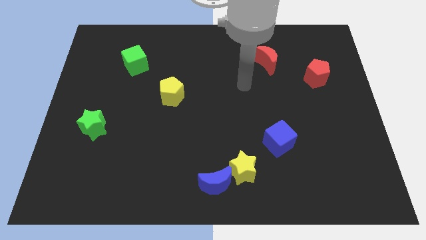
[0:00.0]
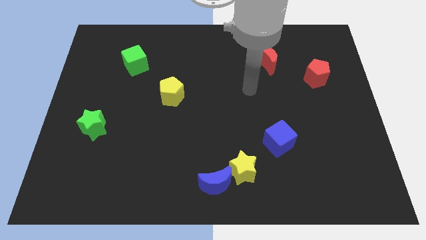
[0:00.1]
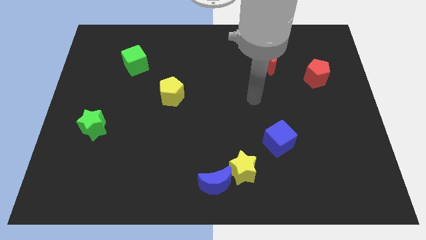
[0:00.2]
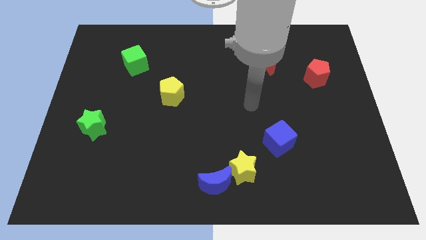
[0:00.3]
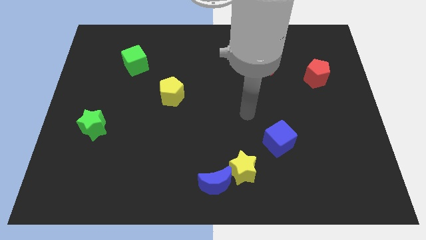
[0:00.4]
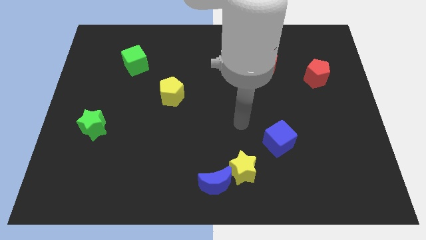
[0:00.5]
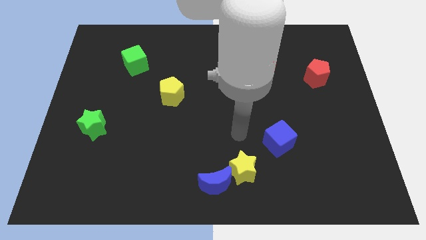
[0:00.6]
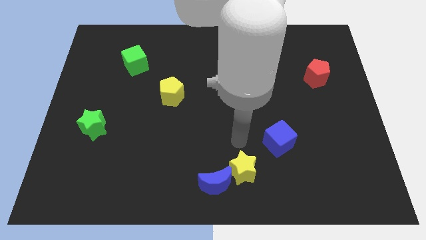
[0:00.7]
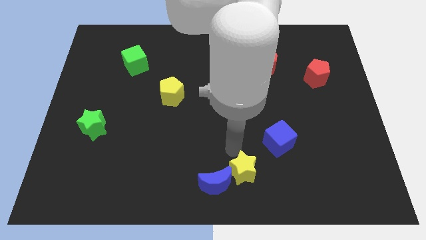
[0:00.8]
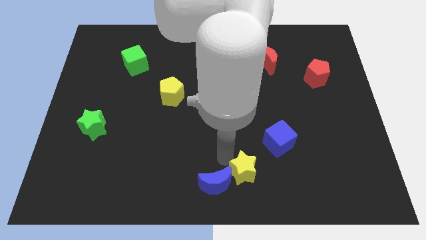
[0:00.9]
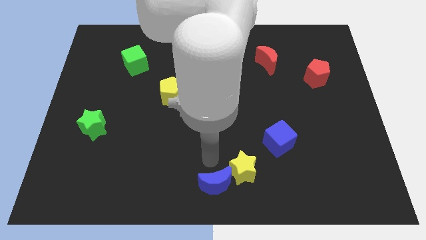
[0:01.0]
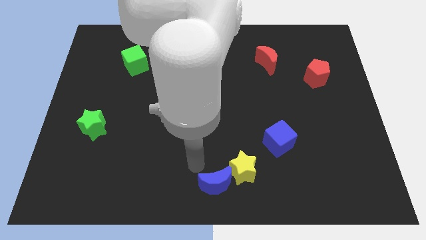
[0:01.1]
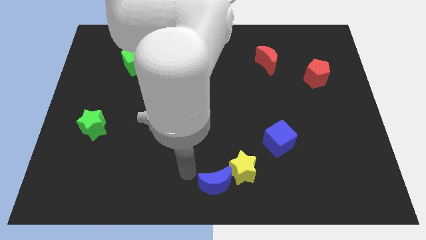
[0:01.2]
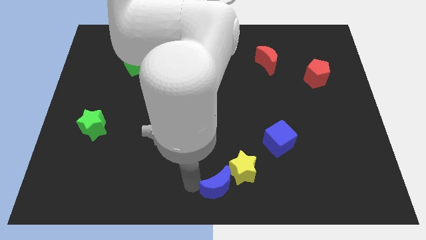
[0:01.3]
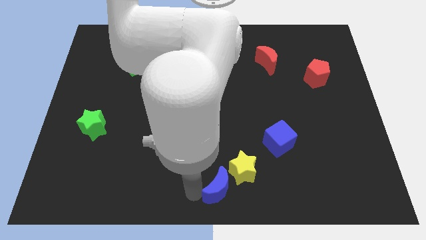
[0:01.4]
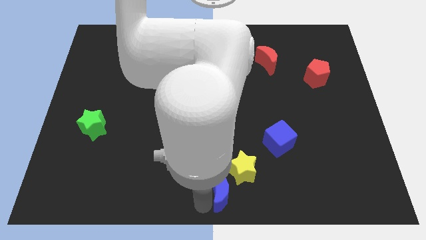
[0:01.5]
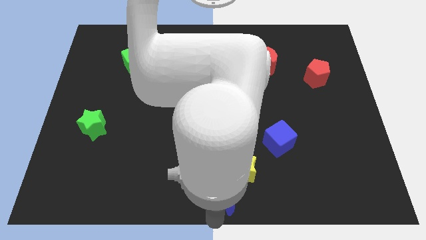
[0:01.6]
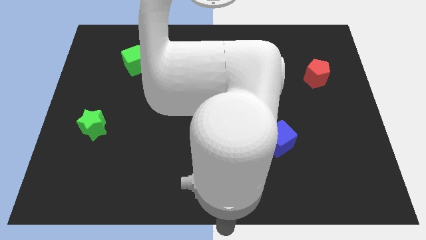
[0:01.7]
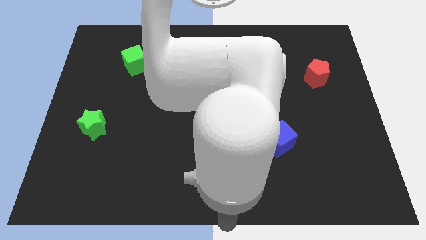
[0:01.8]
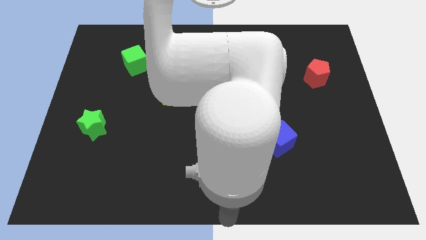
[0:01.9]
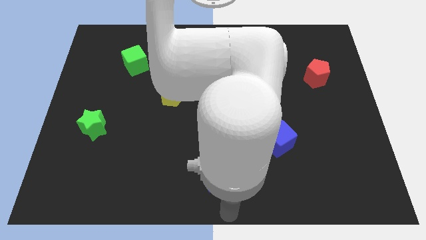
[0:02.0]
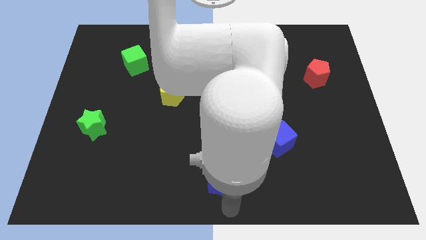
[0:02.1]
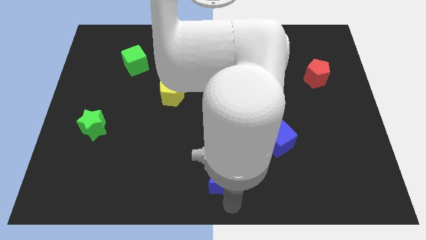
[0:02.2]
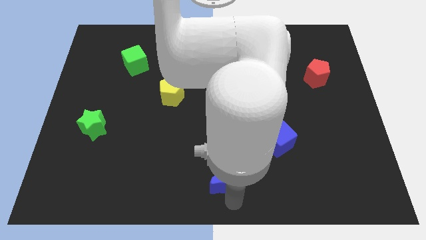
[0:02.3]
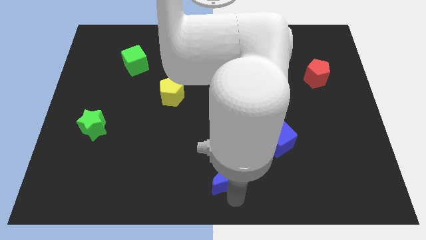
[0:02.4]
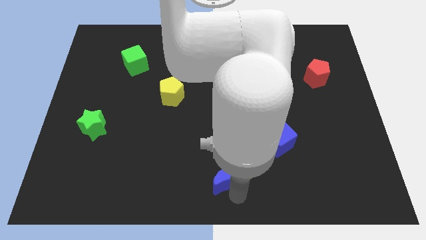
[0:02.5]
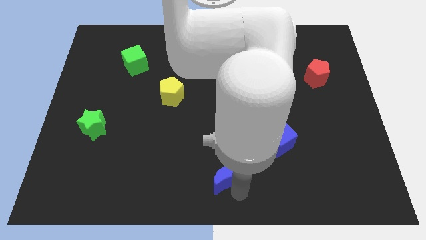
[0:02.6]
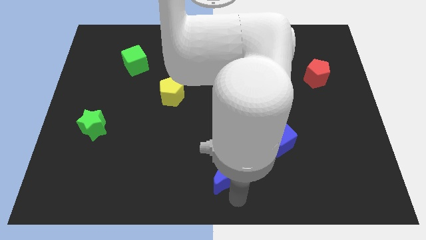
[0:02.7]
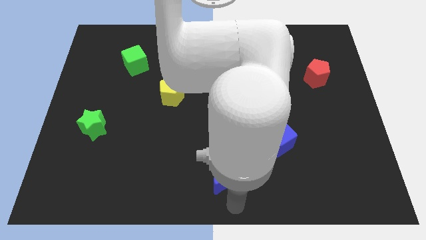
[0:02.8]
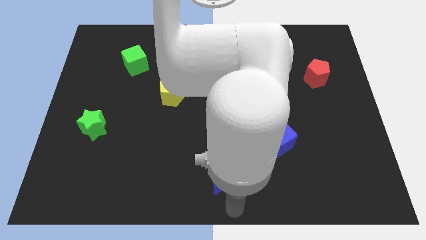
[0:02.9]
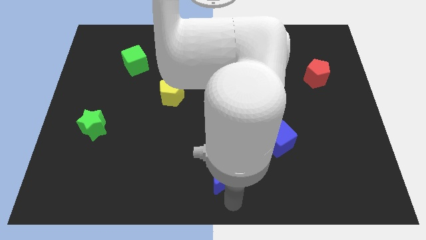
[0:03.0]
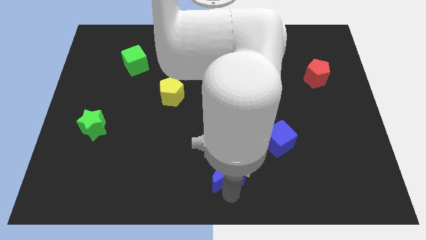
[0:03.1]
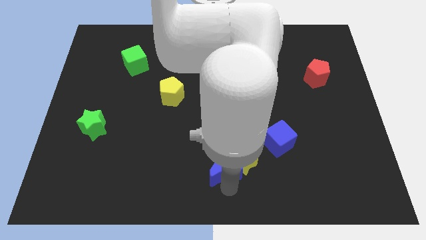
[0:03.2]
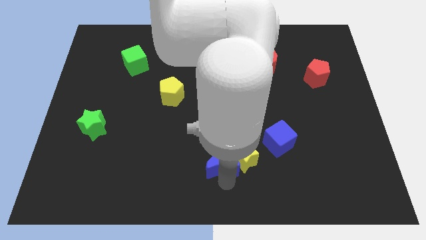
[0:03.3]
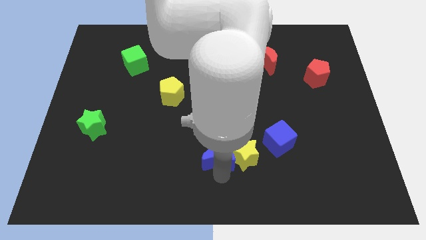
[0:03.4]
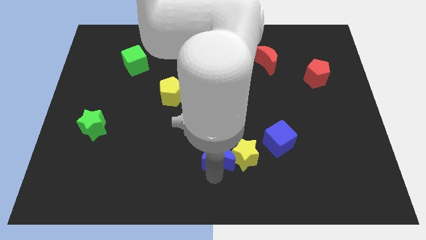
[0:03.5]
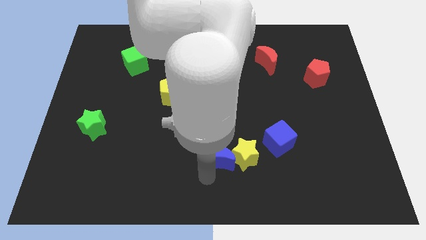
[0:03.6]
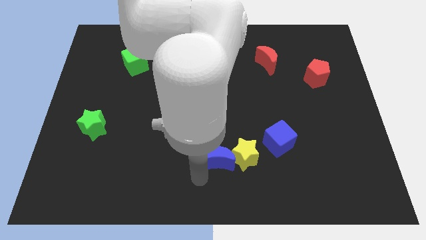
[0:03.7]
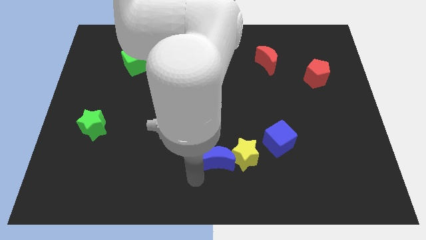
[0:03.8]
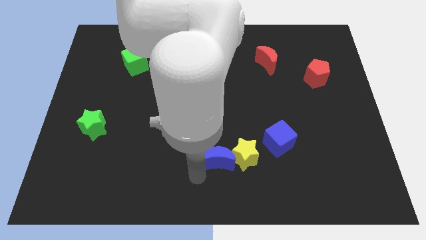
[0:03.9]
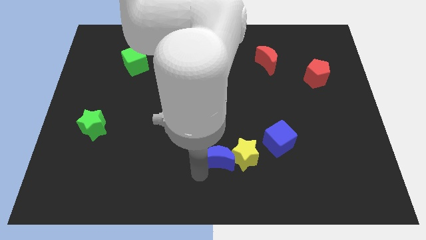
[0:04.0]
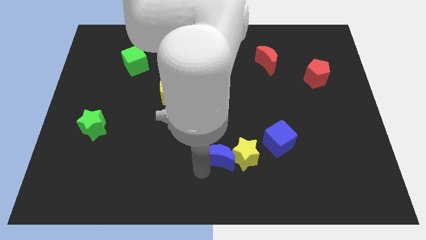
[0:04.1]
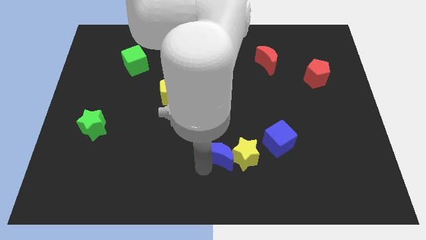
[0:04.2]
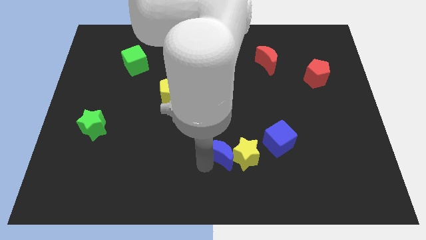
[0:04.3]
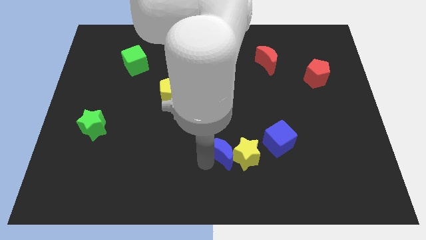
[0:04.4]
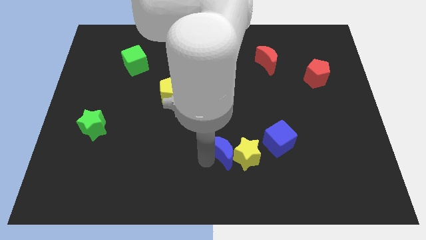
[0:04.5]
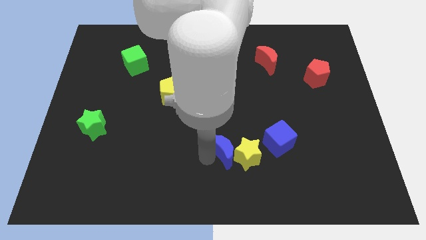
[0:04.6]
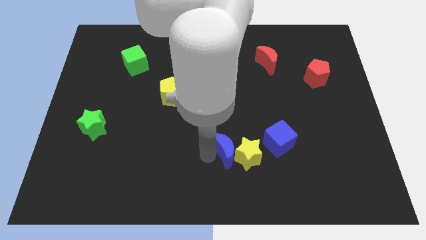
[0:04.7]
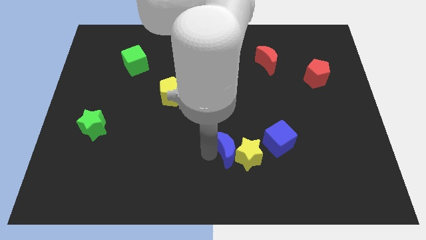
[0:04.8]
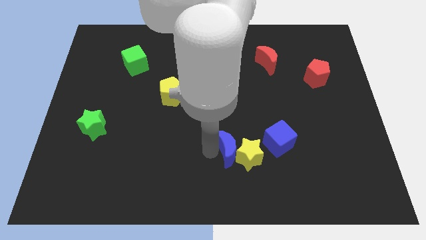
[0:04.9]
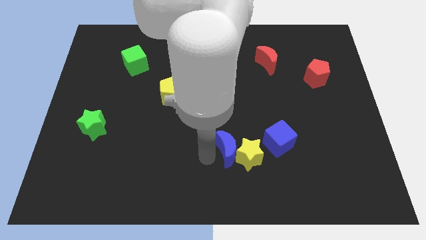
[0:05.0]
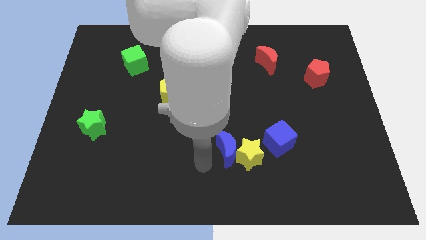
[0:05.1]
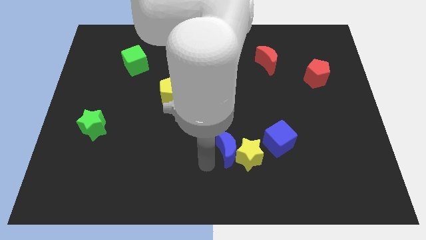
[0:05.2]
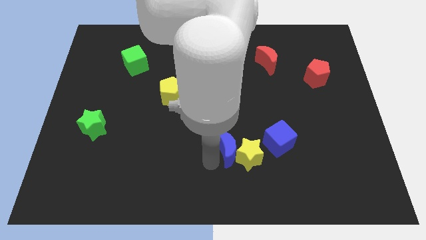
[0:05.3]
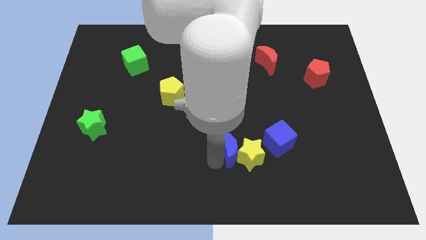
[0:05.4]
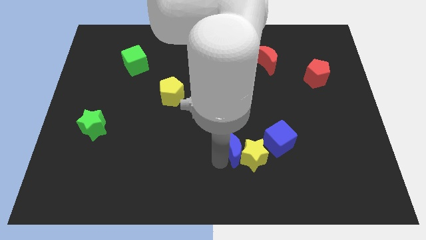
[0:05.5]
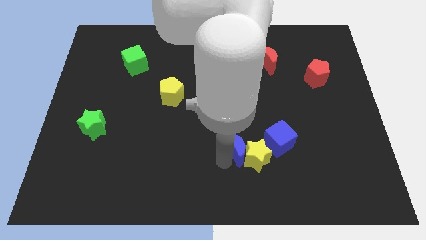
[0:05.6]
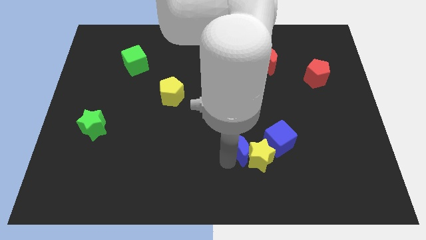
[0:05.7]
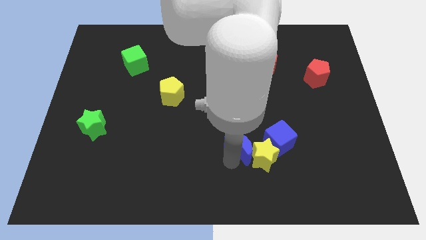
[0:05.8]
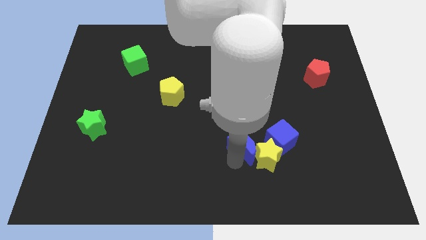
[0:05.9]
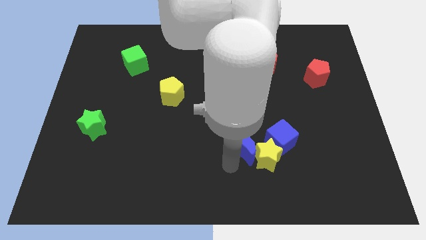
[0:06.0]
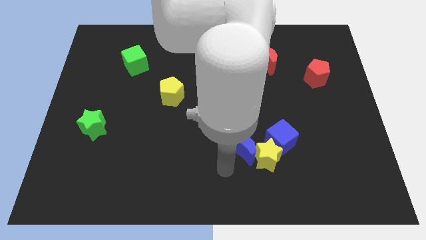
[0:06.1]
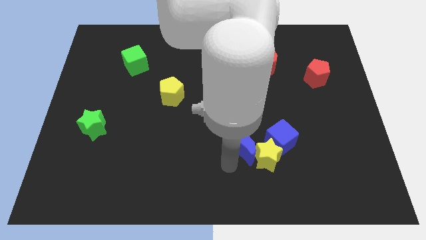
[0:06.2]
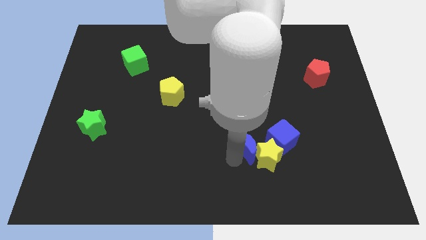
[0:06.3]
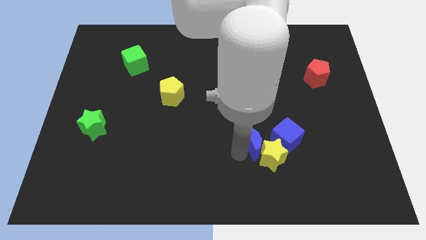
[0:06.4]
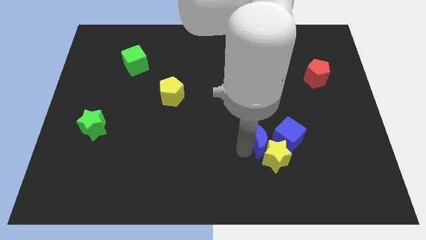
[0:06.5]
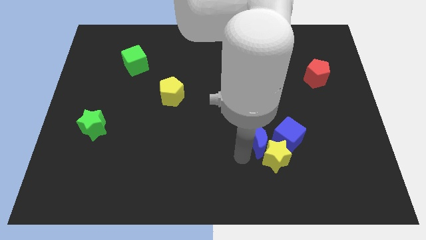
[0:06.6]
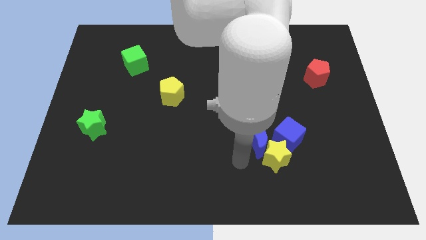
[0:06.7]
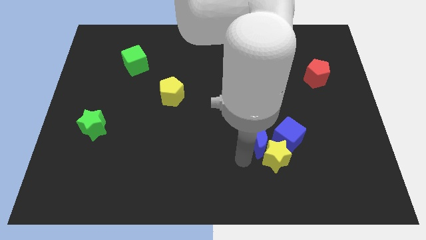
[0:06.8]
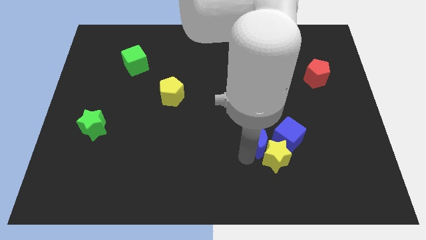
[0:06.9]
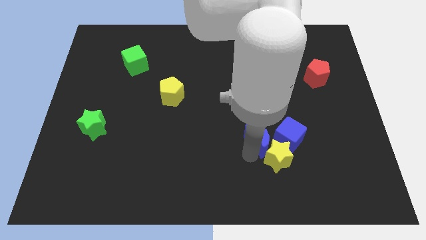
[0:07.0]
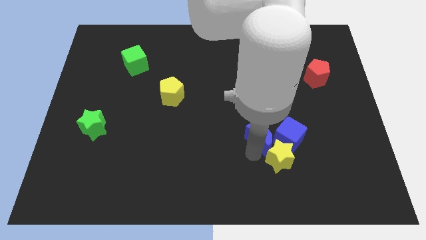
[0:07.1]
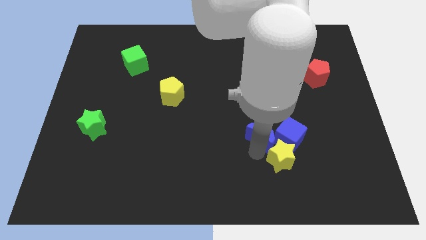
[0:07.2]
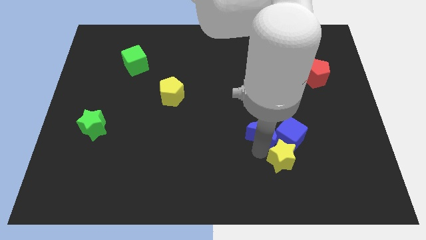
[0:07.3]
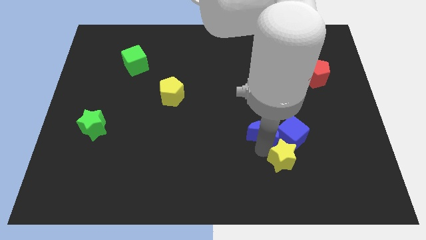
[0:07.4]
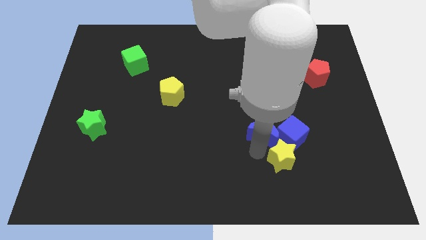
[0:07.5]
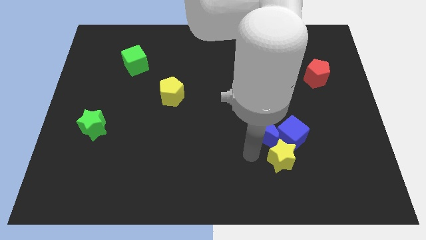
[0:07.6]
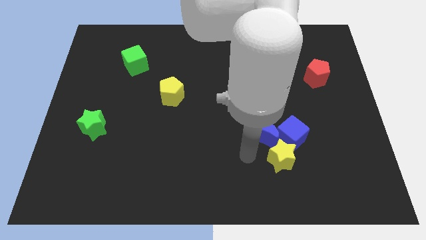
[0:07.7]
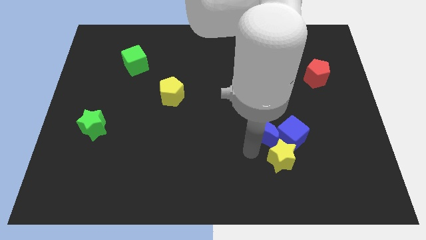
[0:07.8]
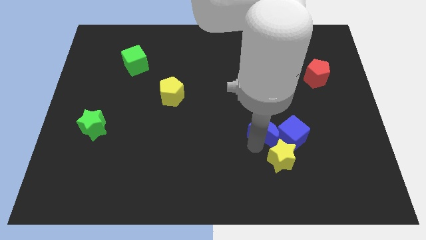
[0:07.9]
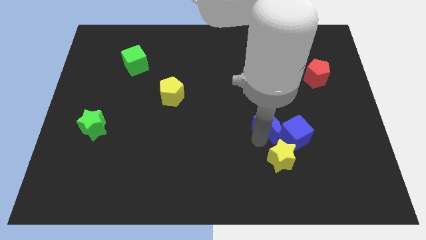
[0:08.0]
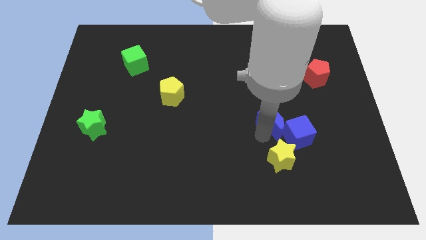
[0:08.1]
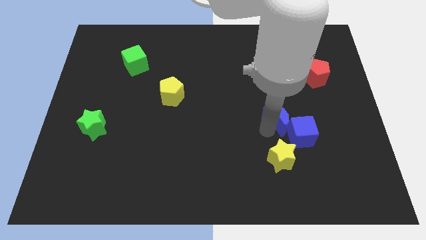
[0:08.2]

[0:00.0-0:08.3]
slide the blue moon diagonally up and right

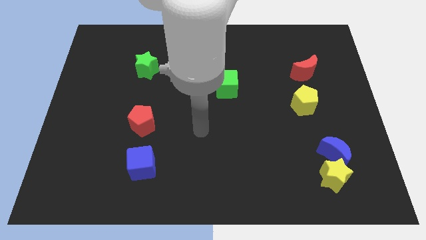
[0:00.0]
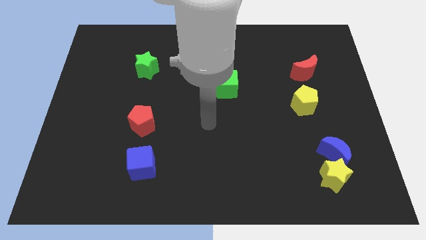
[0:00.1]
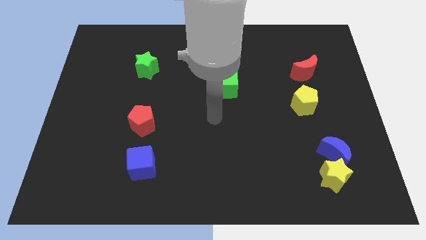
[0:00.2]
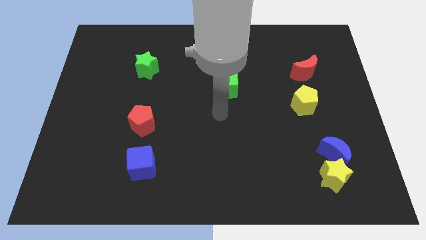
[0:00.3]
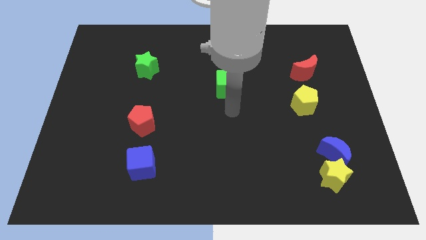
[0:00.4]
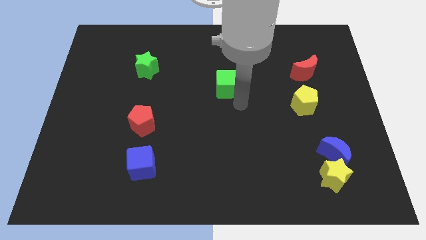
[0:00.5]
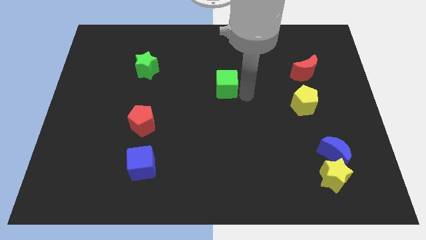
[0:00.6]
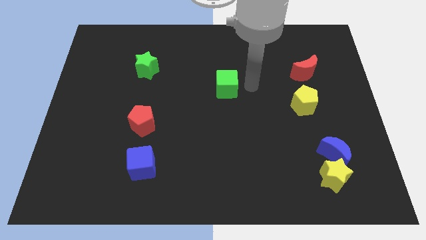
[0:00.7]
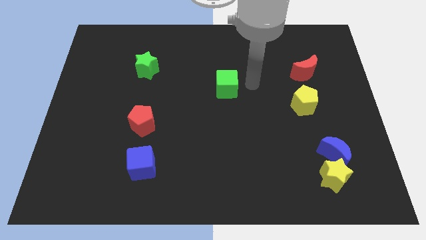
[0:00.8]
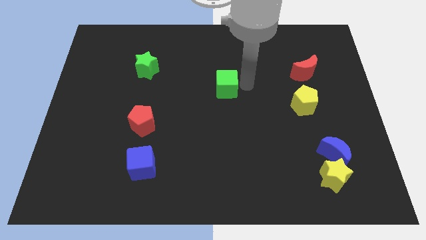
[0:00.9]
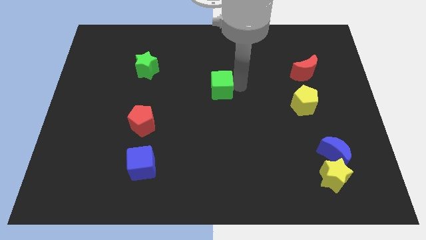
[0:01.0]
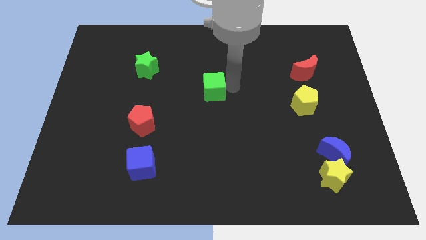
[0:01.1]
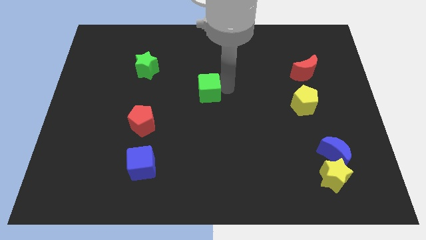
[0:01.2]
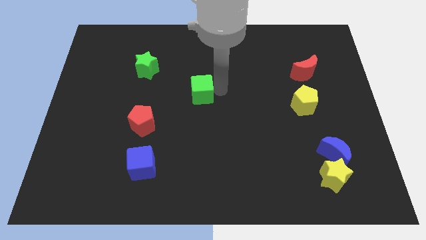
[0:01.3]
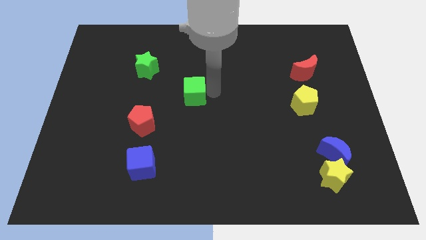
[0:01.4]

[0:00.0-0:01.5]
slightly push the green cube left
